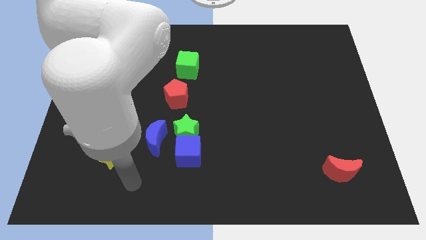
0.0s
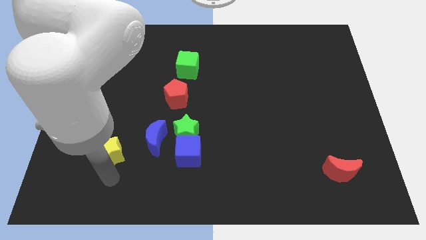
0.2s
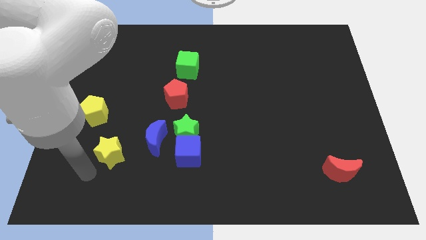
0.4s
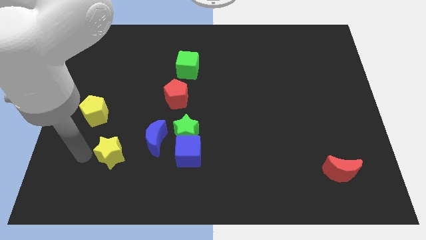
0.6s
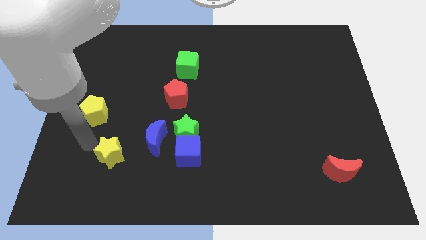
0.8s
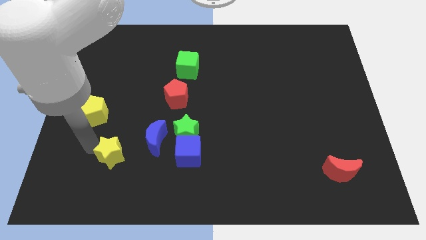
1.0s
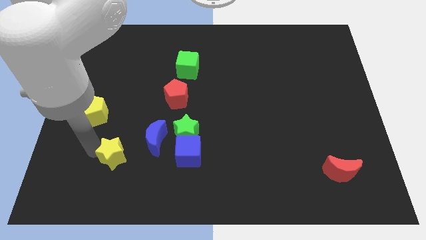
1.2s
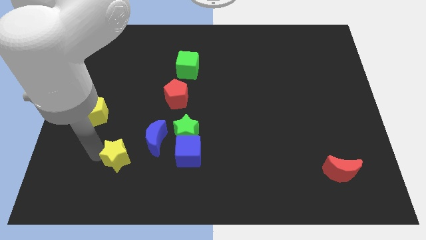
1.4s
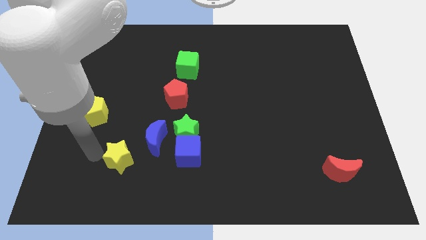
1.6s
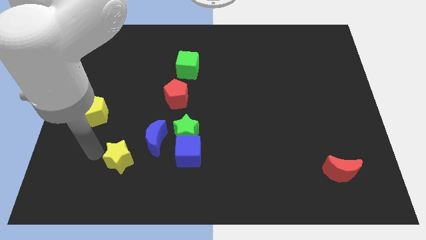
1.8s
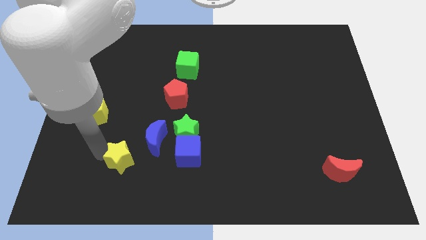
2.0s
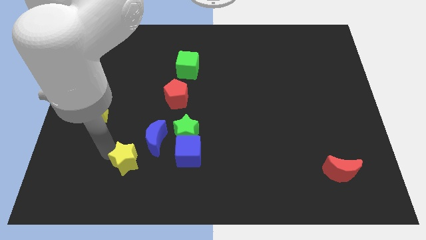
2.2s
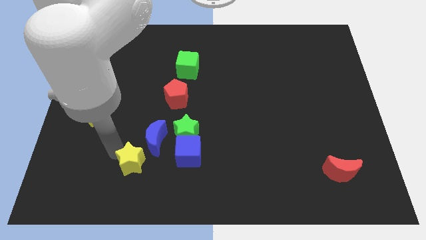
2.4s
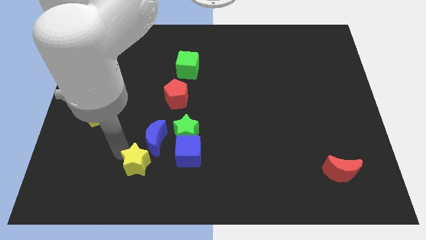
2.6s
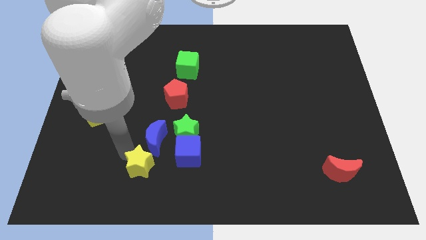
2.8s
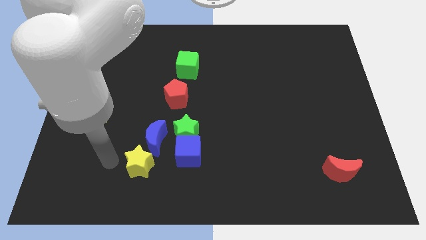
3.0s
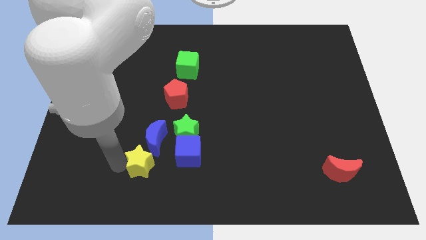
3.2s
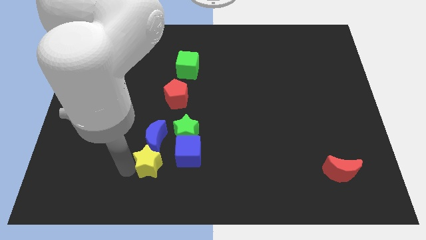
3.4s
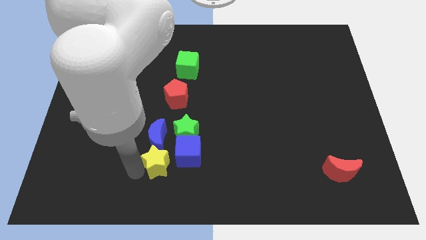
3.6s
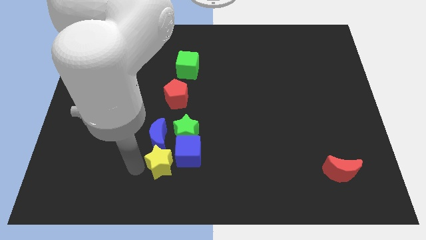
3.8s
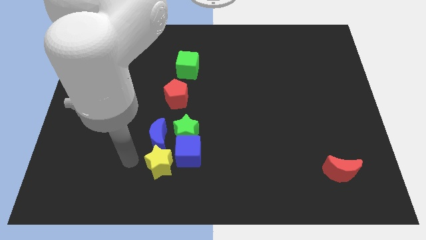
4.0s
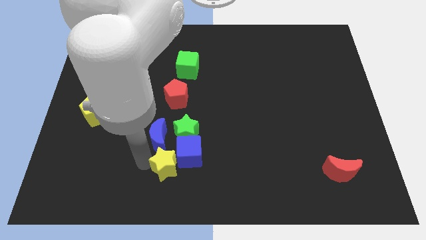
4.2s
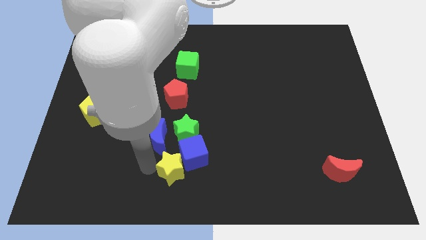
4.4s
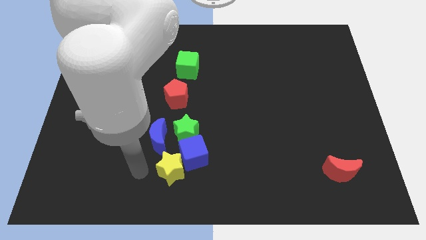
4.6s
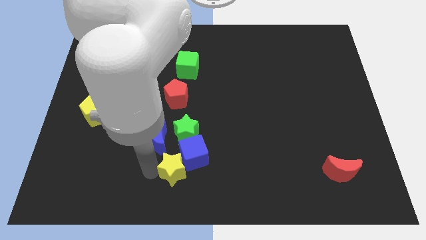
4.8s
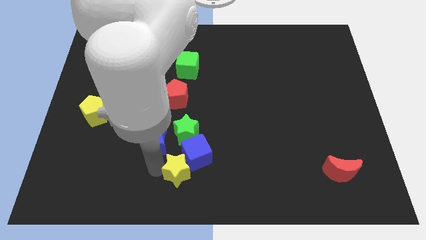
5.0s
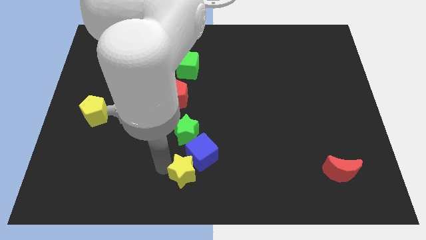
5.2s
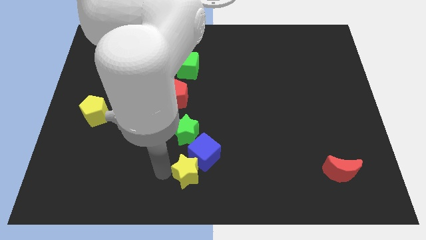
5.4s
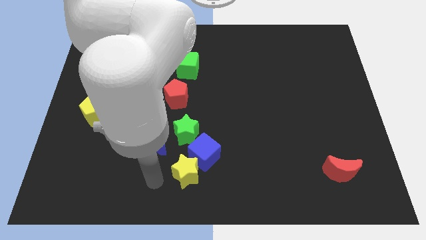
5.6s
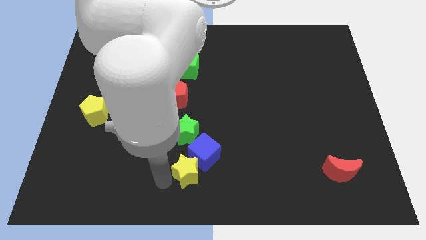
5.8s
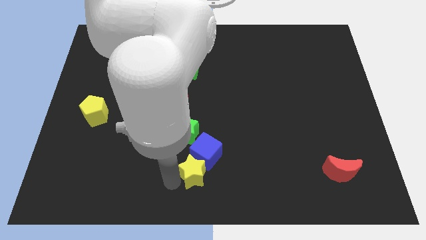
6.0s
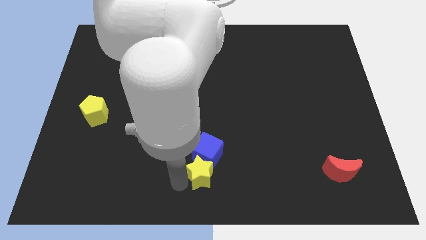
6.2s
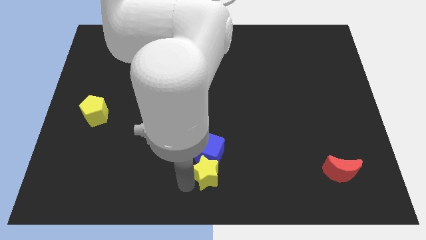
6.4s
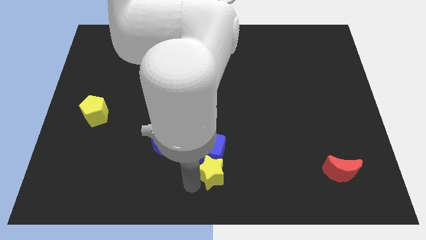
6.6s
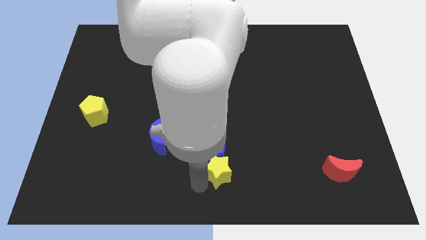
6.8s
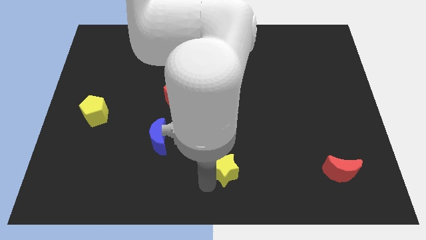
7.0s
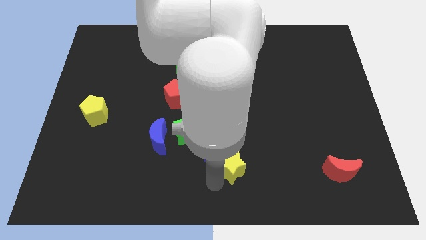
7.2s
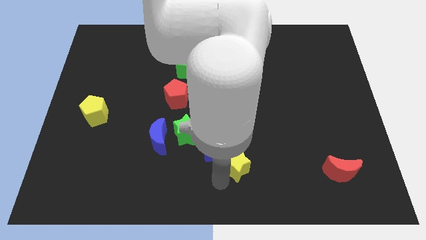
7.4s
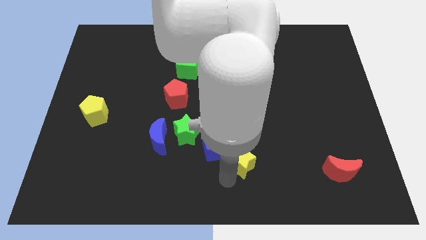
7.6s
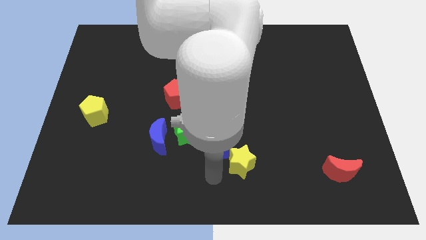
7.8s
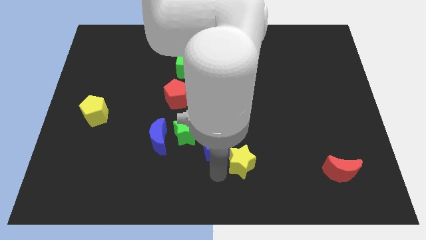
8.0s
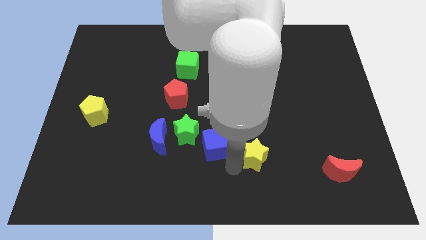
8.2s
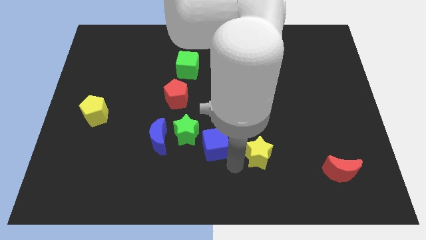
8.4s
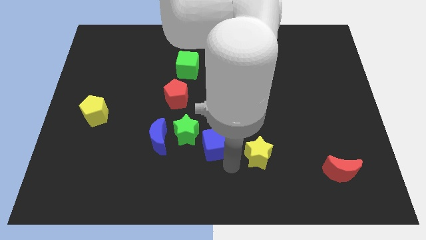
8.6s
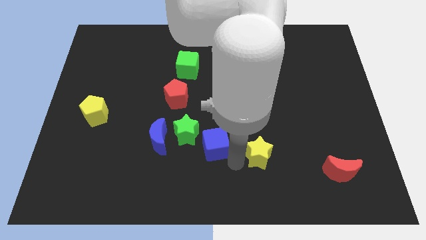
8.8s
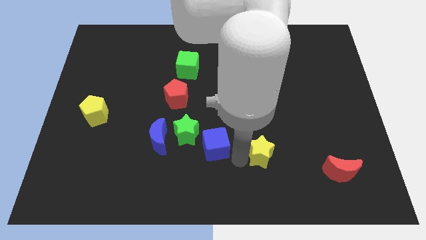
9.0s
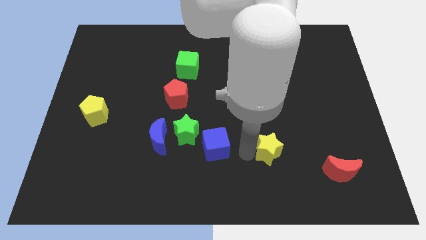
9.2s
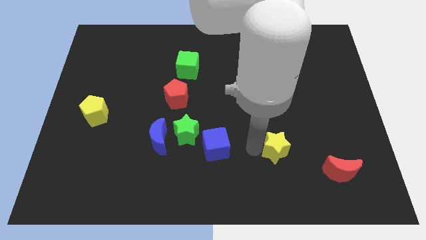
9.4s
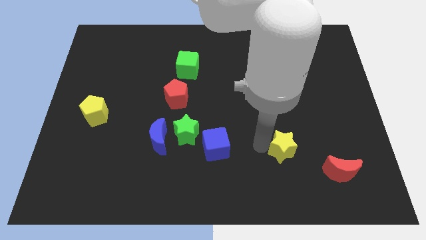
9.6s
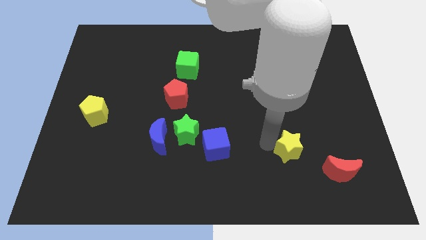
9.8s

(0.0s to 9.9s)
put the yellow star diagonally up and to the left of the red moon

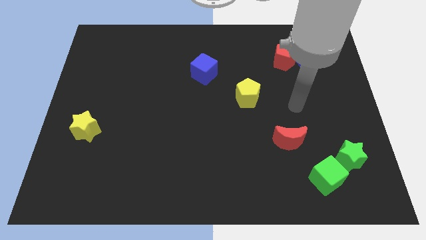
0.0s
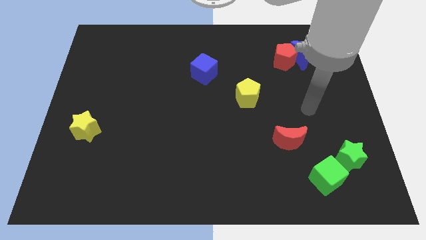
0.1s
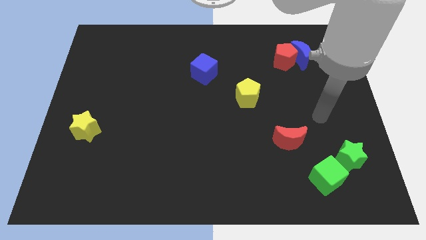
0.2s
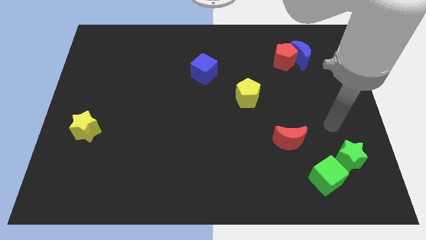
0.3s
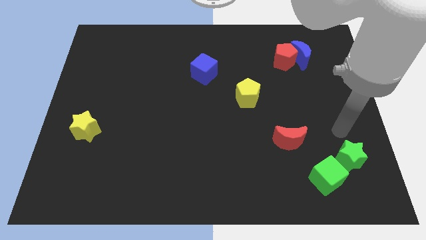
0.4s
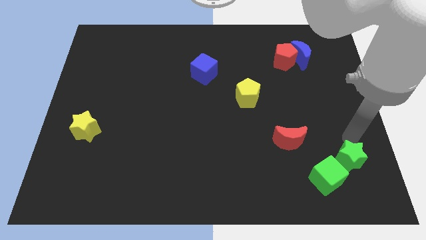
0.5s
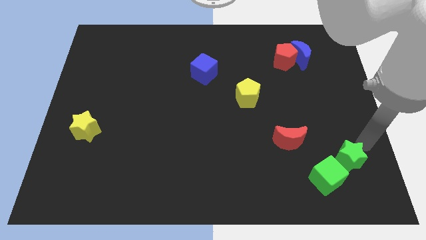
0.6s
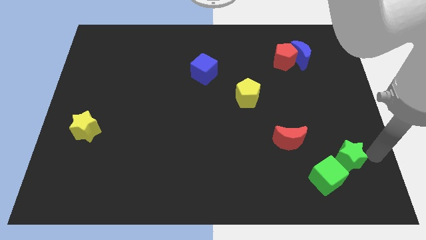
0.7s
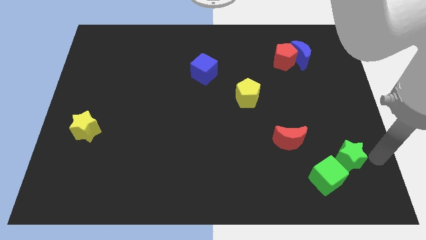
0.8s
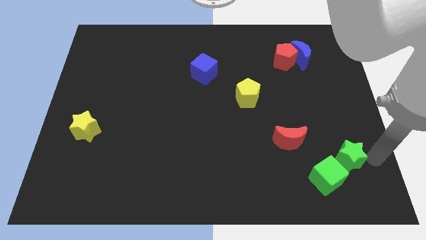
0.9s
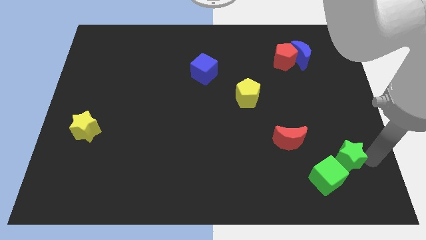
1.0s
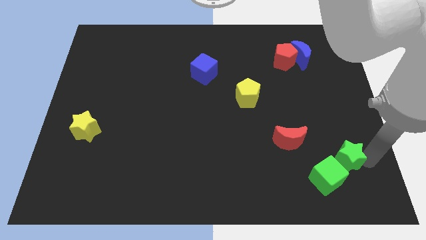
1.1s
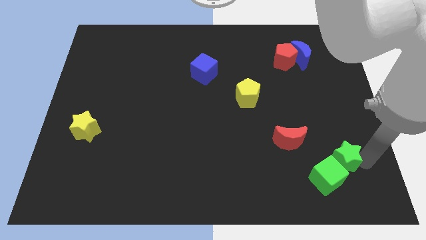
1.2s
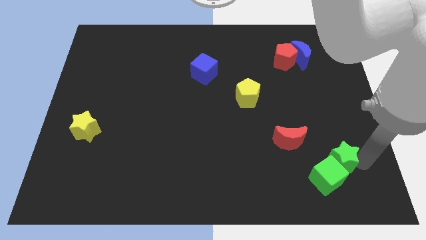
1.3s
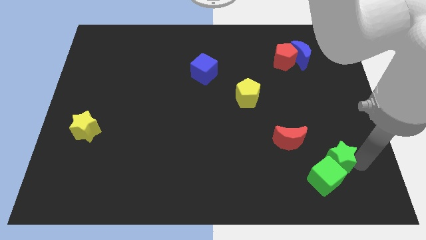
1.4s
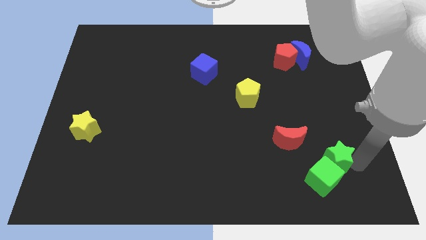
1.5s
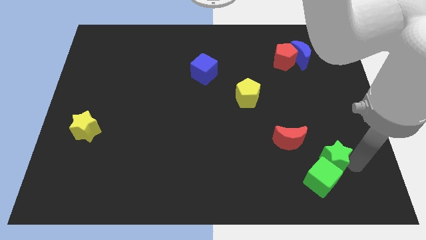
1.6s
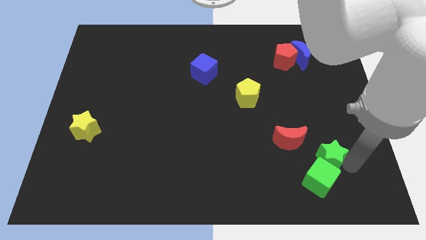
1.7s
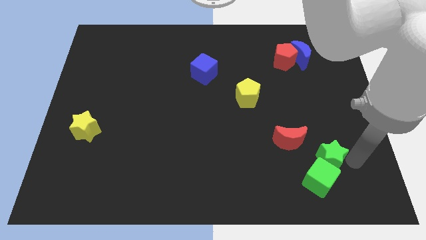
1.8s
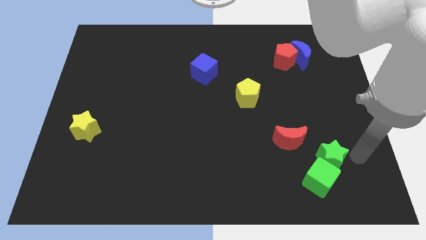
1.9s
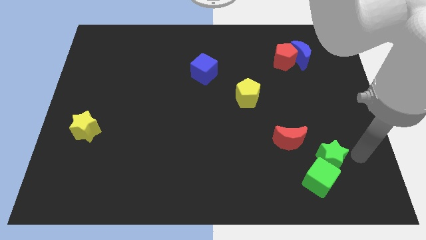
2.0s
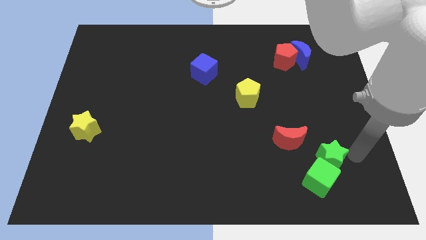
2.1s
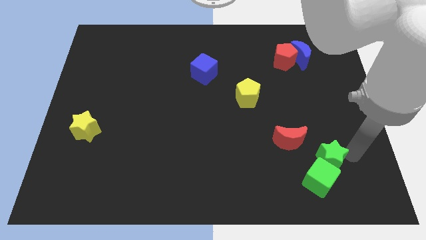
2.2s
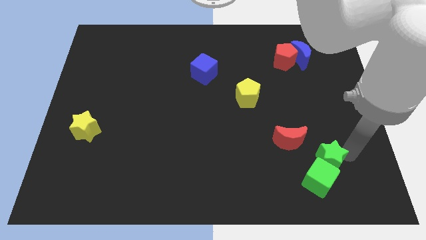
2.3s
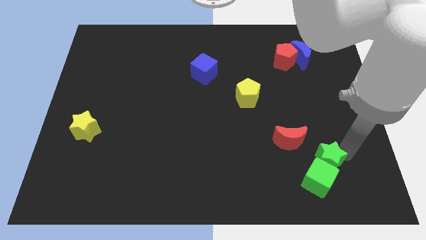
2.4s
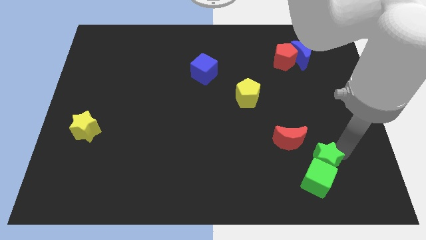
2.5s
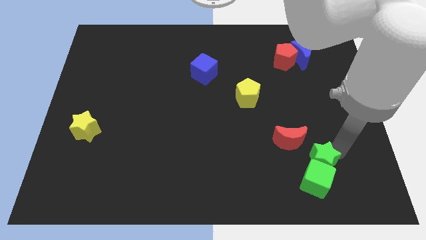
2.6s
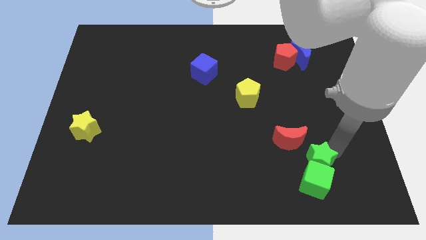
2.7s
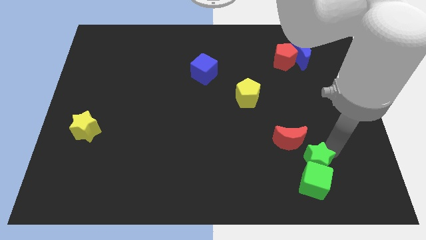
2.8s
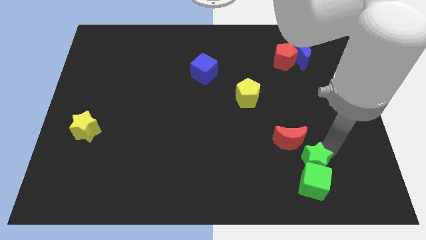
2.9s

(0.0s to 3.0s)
slide the green star to the bottom side of the red moon

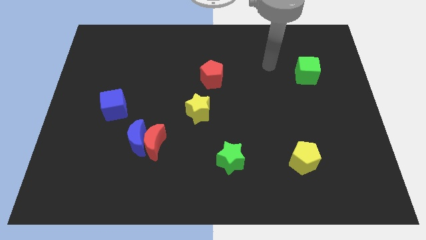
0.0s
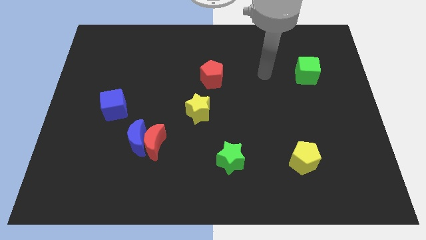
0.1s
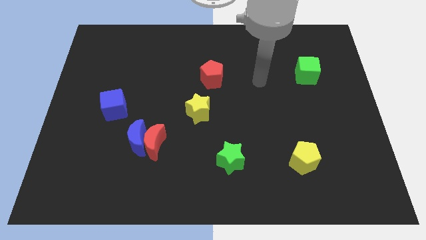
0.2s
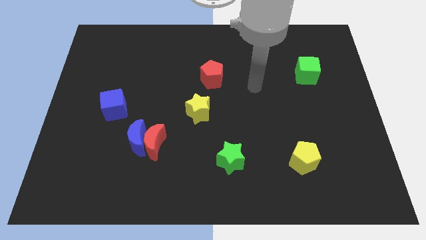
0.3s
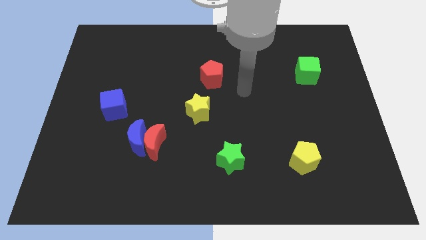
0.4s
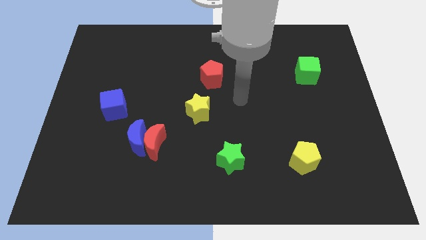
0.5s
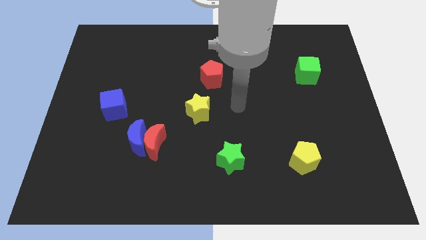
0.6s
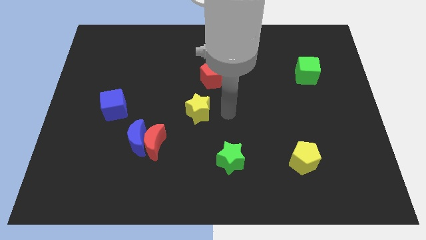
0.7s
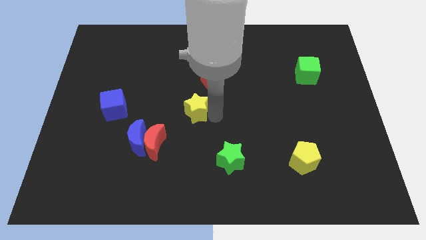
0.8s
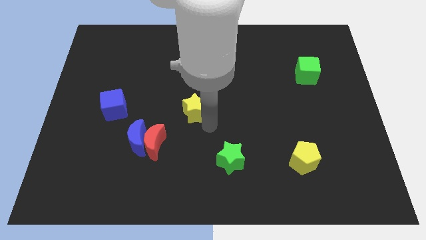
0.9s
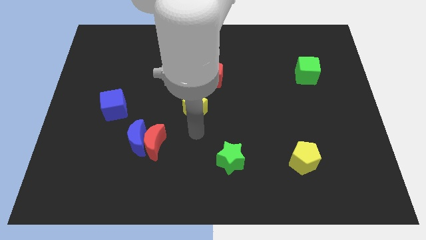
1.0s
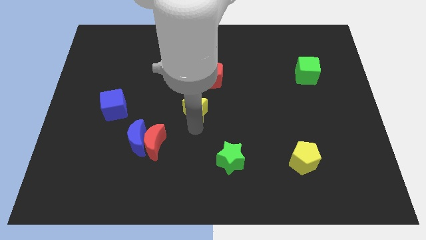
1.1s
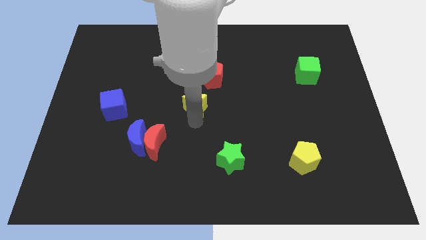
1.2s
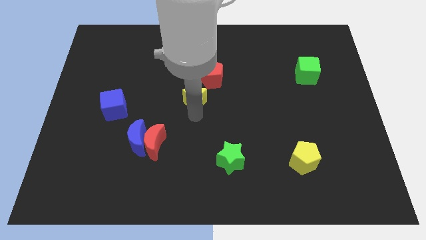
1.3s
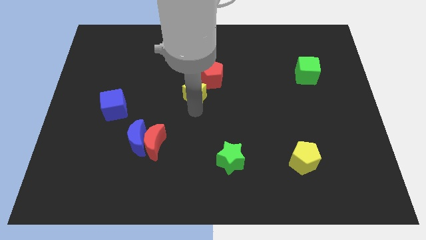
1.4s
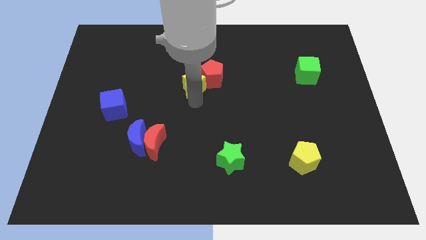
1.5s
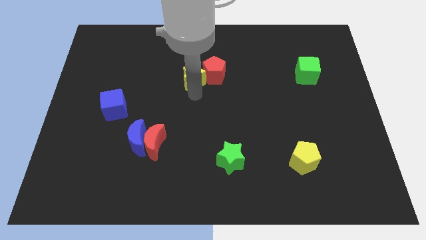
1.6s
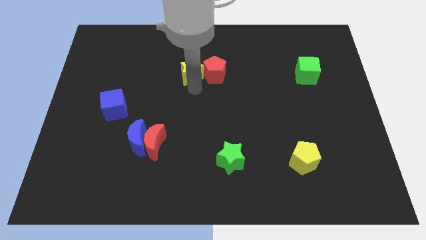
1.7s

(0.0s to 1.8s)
slide the yellow star to the top left of the red pentagon
